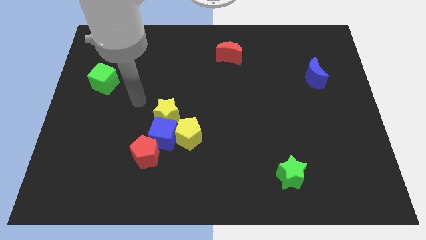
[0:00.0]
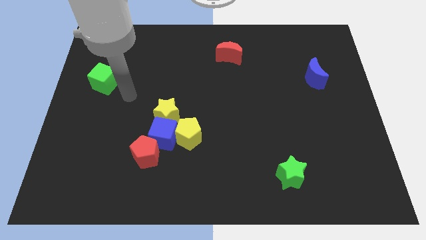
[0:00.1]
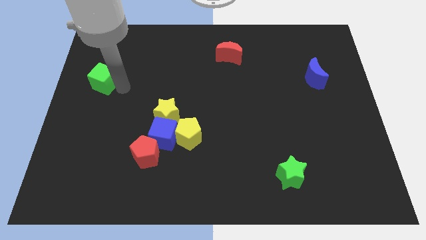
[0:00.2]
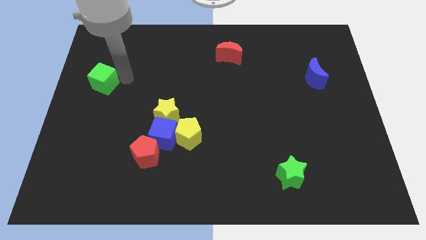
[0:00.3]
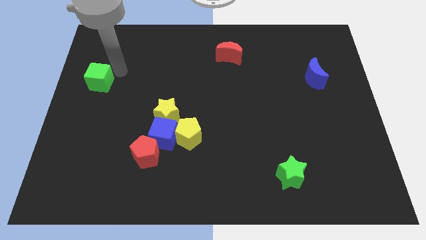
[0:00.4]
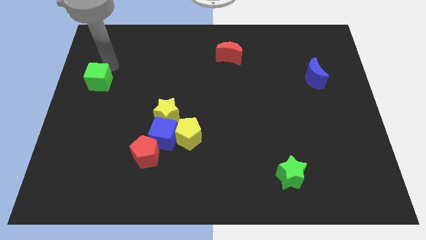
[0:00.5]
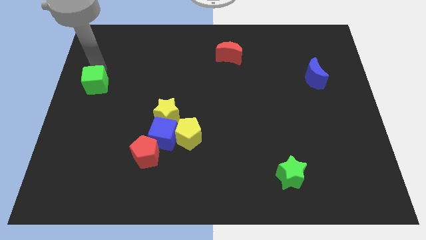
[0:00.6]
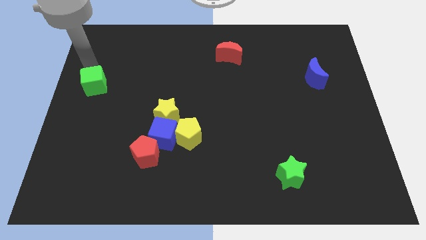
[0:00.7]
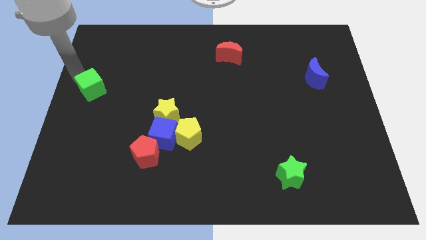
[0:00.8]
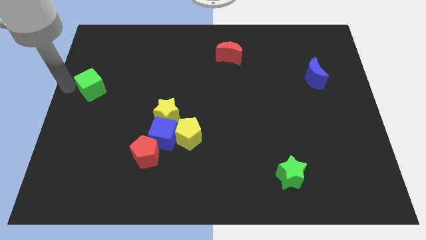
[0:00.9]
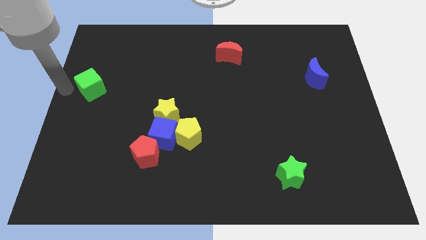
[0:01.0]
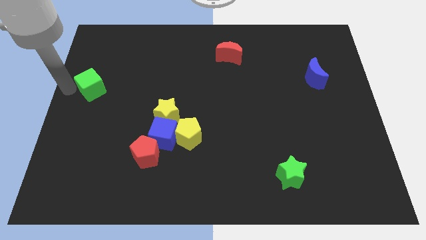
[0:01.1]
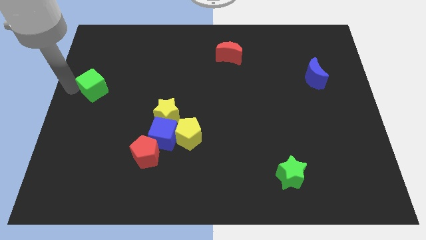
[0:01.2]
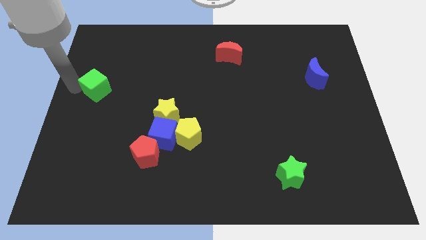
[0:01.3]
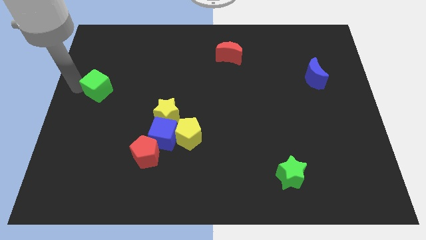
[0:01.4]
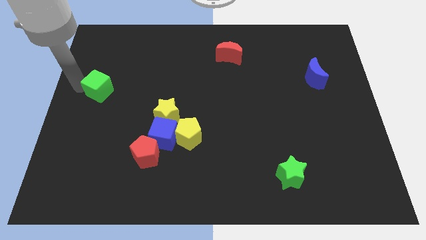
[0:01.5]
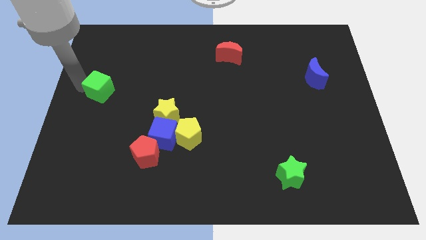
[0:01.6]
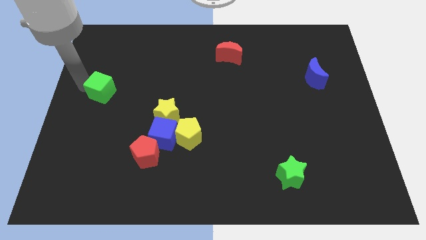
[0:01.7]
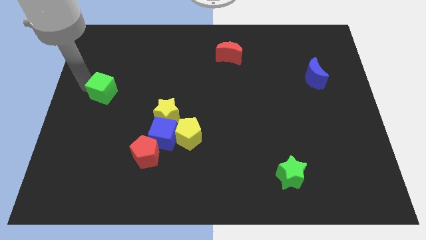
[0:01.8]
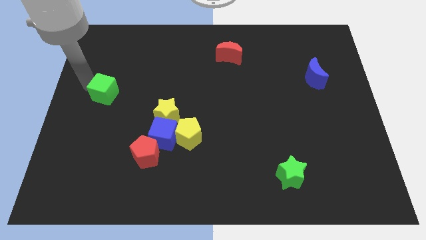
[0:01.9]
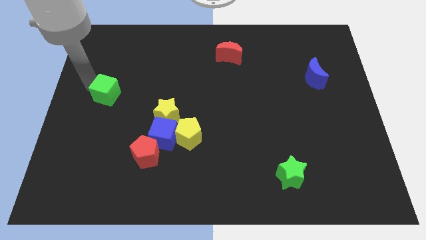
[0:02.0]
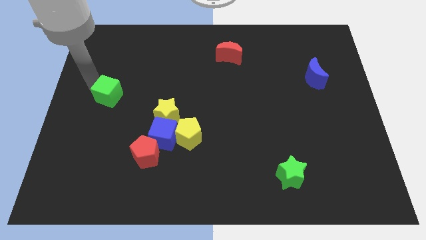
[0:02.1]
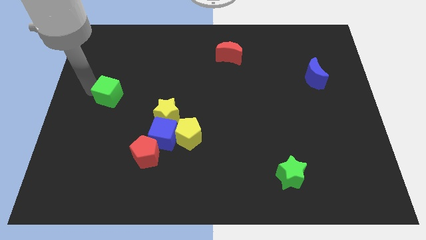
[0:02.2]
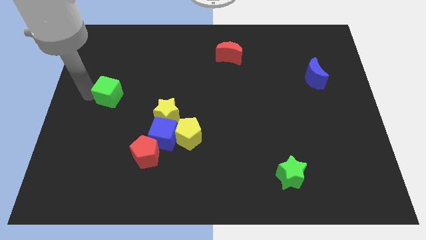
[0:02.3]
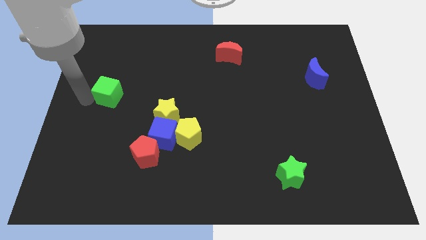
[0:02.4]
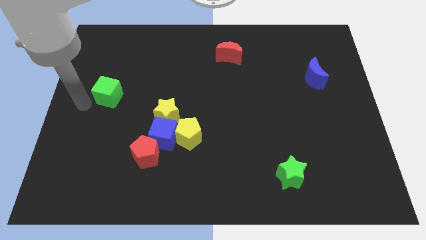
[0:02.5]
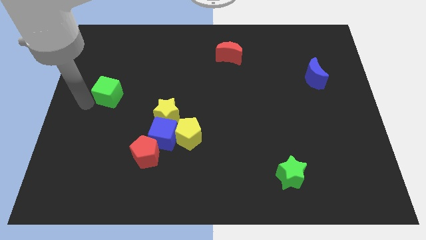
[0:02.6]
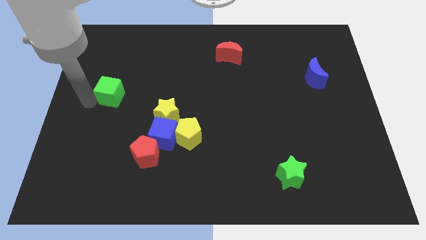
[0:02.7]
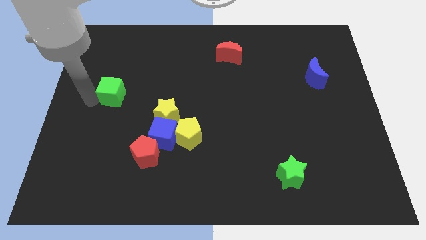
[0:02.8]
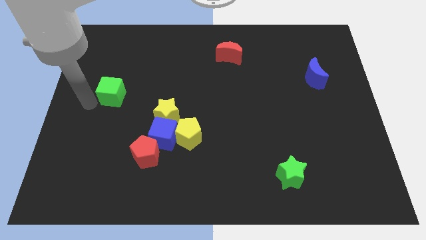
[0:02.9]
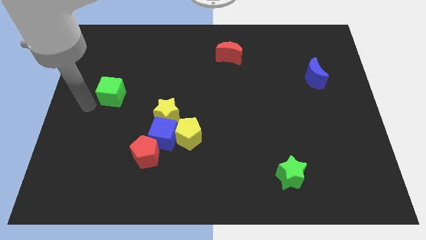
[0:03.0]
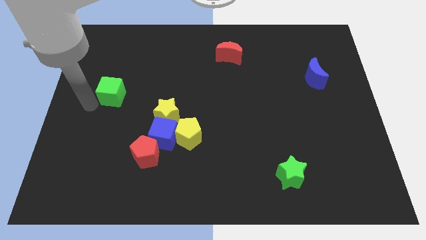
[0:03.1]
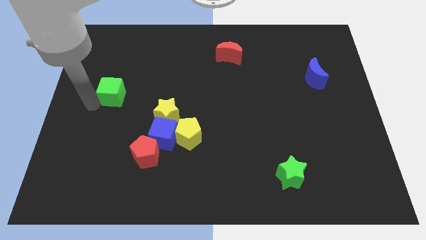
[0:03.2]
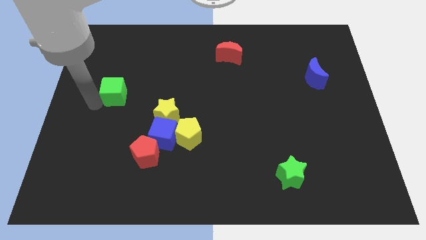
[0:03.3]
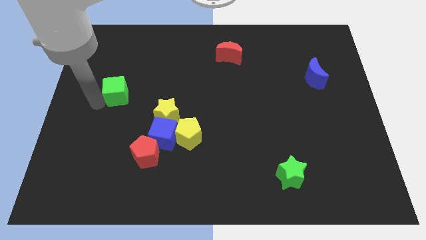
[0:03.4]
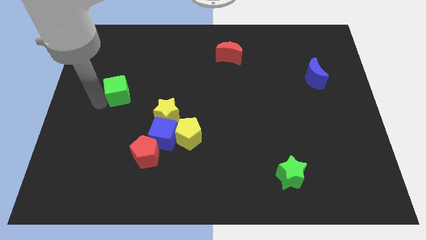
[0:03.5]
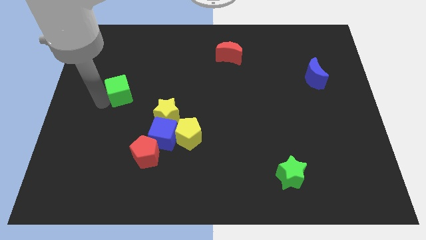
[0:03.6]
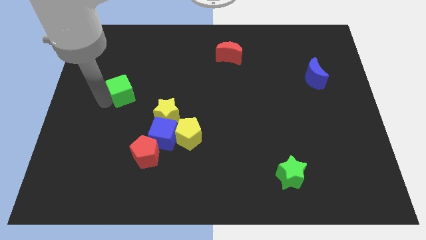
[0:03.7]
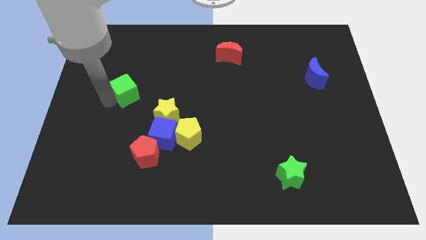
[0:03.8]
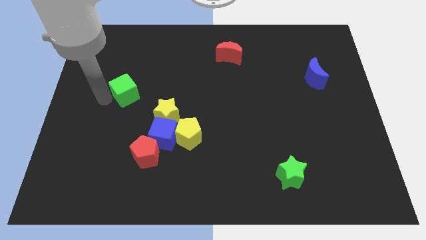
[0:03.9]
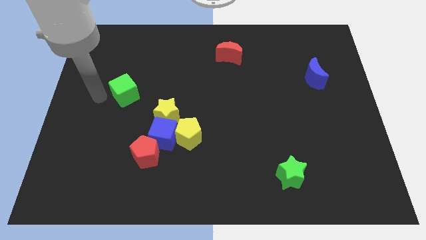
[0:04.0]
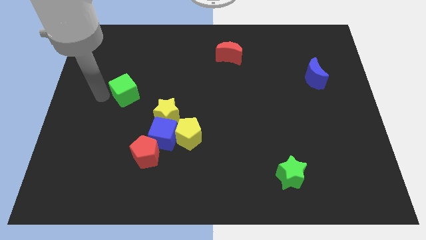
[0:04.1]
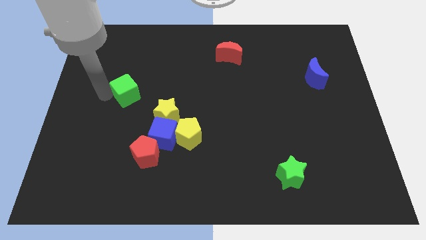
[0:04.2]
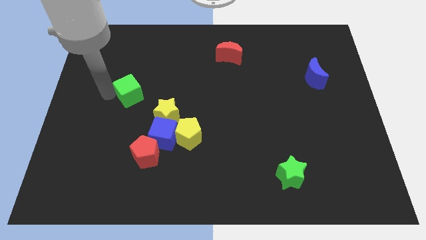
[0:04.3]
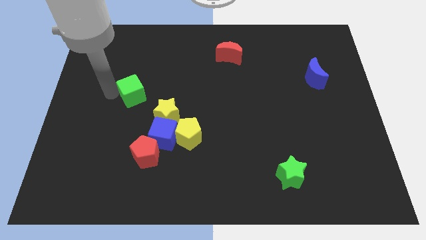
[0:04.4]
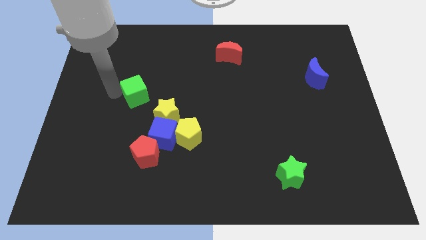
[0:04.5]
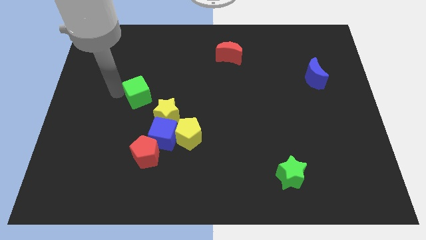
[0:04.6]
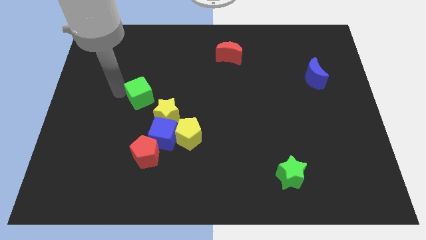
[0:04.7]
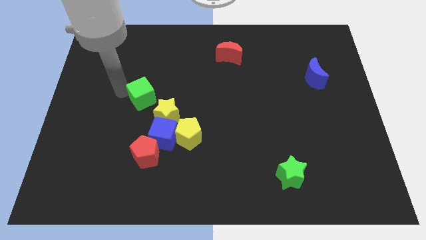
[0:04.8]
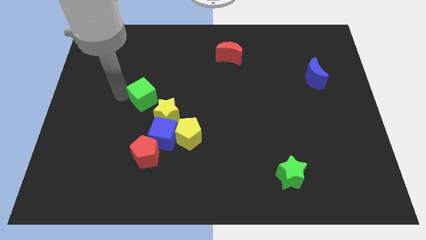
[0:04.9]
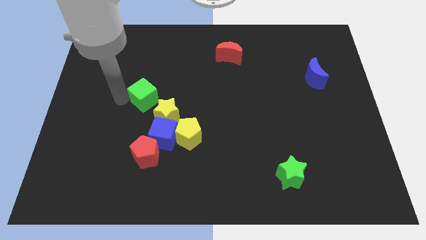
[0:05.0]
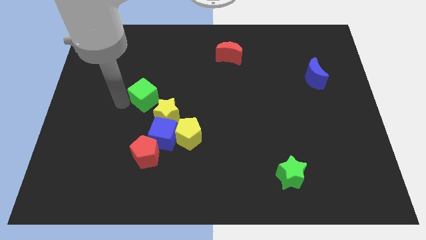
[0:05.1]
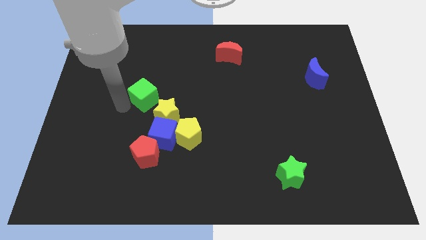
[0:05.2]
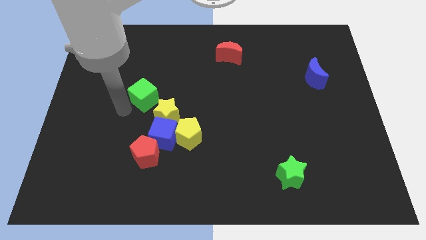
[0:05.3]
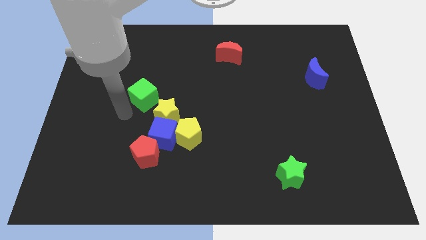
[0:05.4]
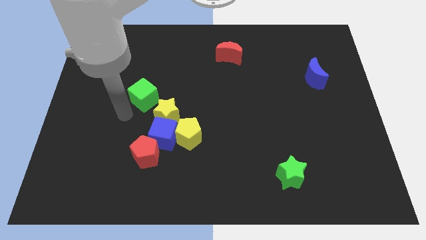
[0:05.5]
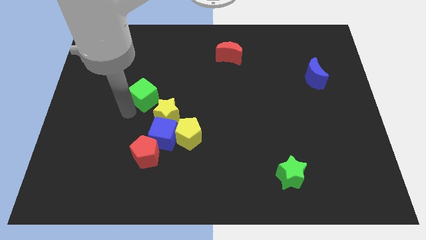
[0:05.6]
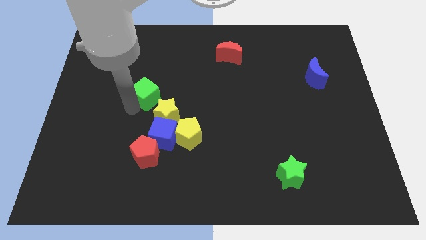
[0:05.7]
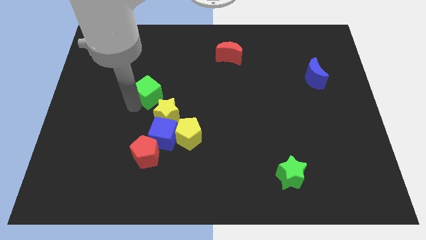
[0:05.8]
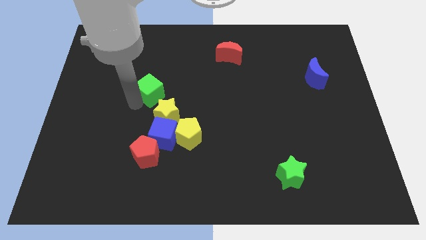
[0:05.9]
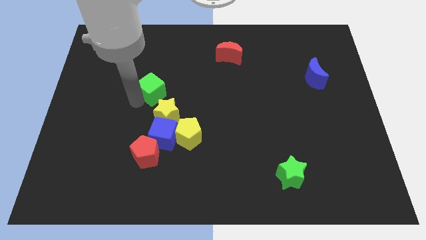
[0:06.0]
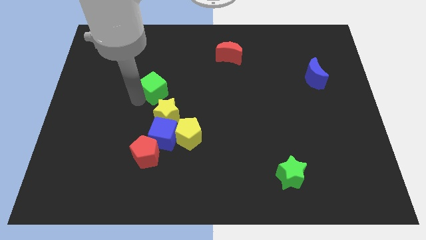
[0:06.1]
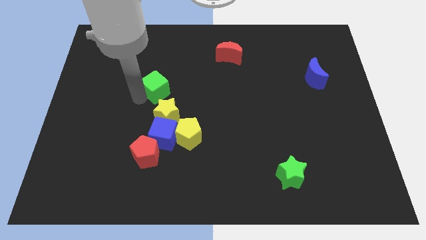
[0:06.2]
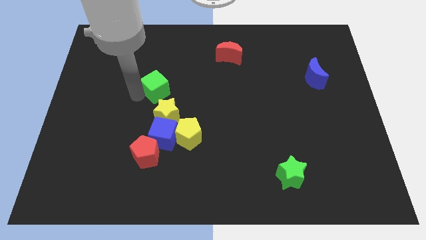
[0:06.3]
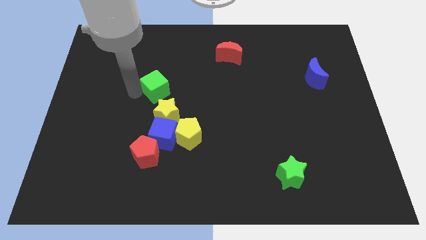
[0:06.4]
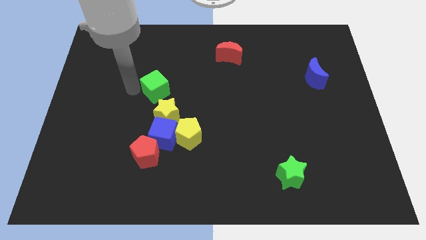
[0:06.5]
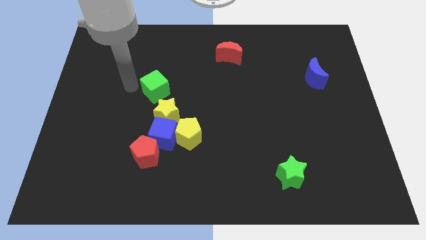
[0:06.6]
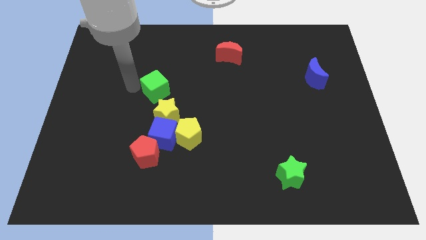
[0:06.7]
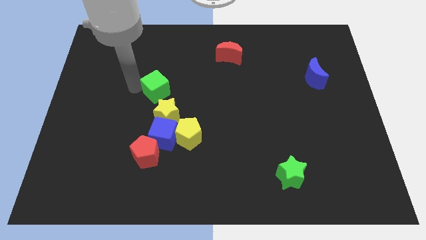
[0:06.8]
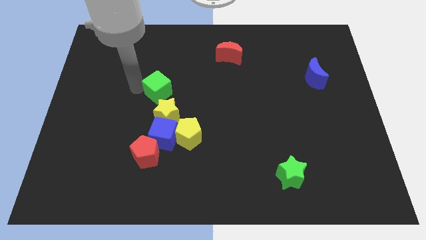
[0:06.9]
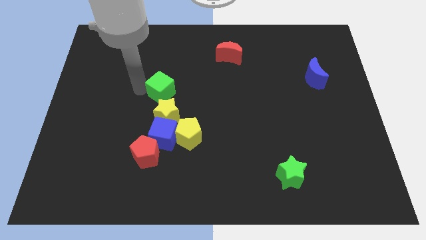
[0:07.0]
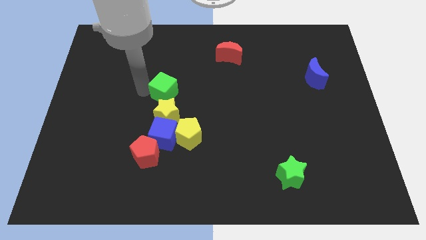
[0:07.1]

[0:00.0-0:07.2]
push the green cube to the center of the board
